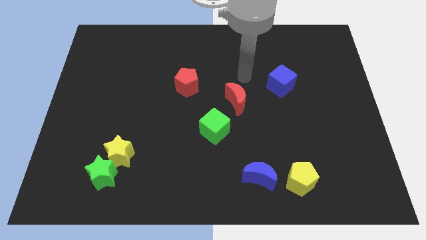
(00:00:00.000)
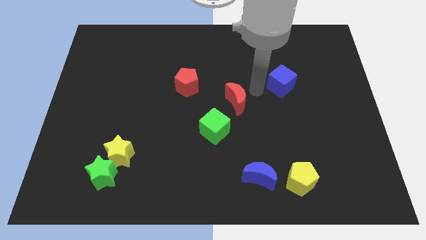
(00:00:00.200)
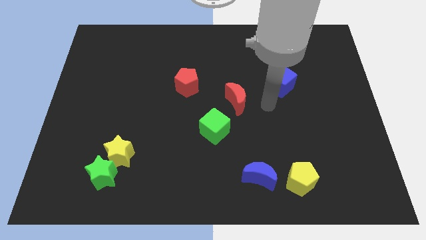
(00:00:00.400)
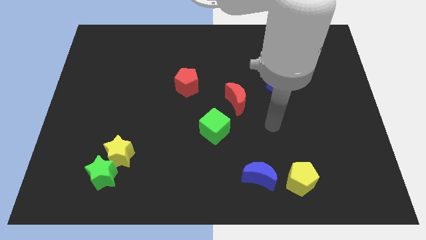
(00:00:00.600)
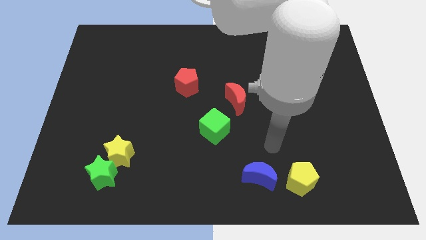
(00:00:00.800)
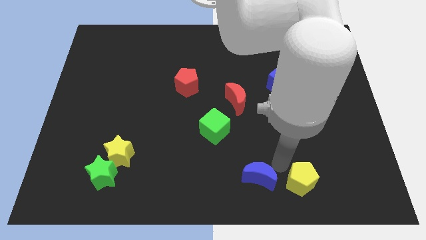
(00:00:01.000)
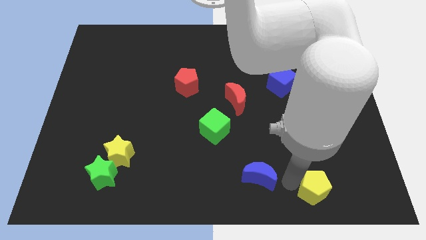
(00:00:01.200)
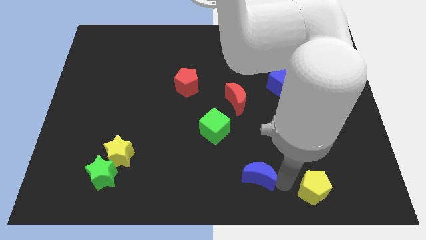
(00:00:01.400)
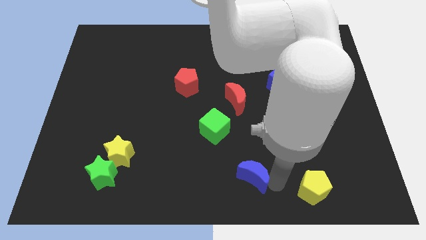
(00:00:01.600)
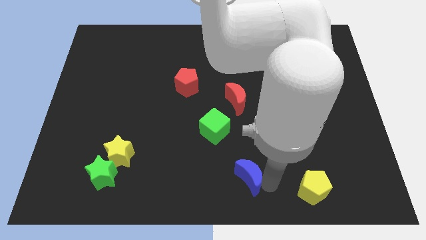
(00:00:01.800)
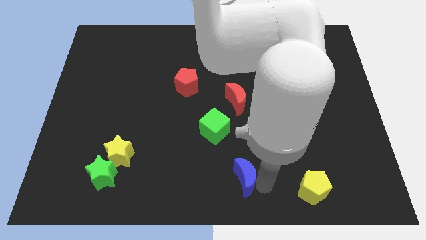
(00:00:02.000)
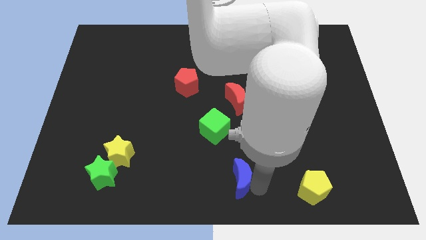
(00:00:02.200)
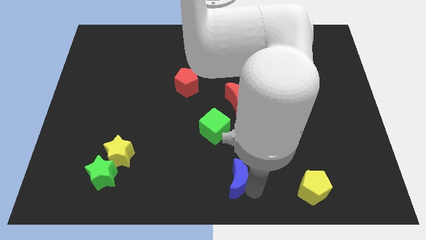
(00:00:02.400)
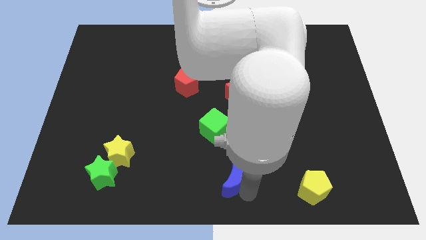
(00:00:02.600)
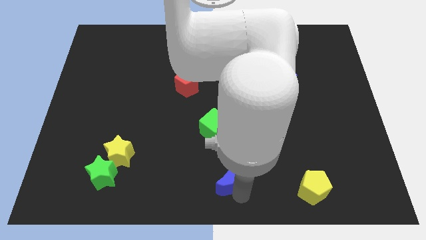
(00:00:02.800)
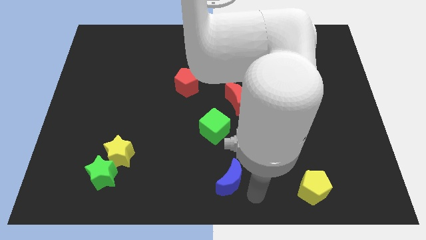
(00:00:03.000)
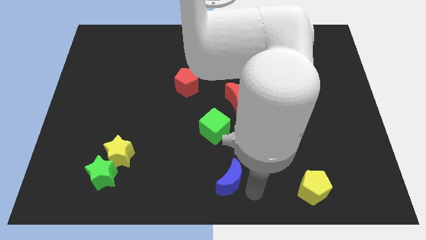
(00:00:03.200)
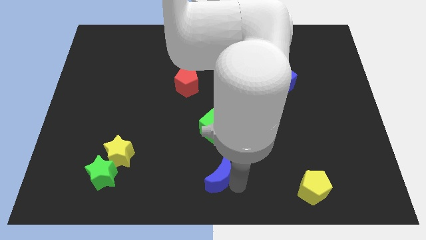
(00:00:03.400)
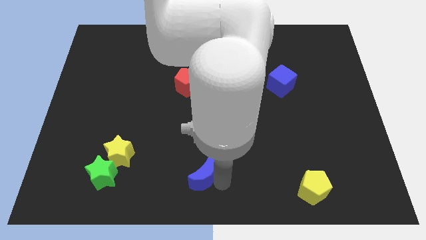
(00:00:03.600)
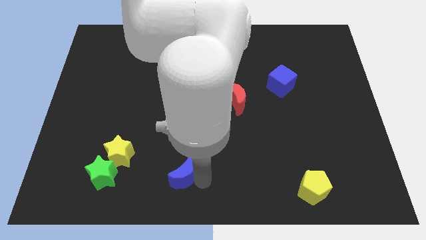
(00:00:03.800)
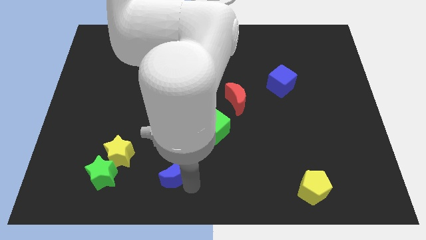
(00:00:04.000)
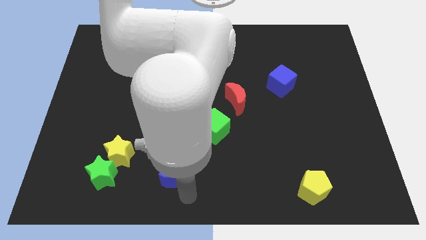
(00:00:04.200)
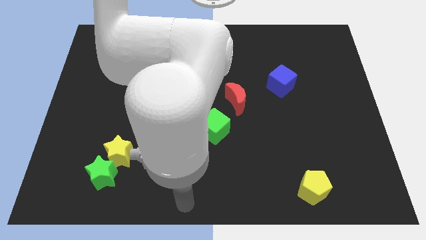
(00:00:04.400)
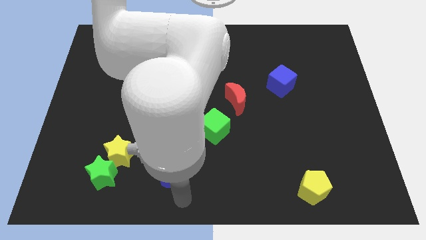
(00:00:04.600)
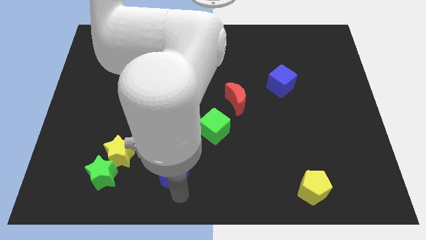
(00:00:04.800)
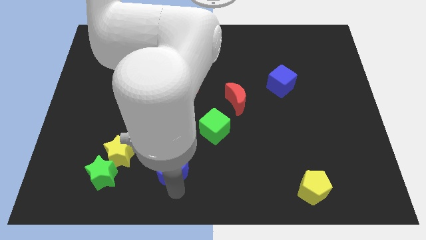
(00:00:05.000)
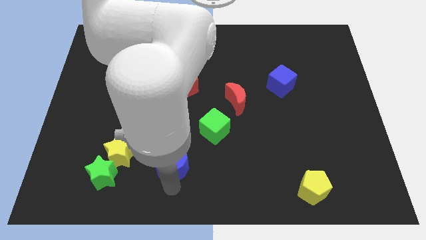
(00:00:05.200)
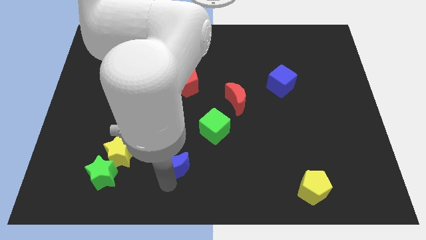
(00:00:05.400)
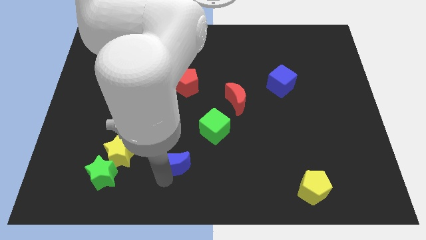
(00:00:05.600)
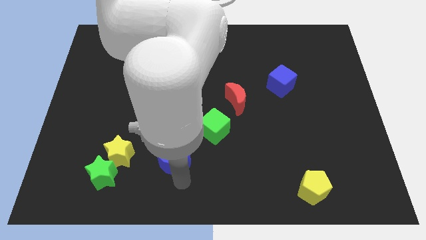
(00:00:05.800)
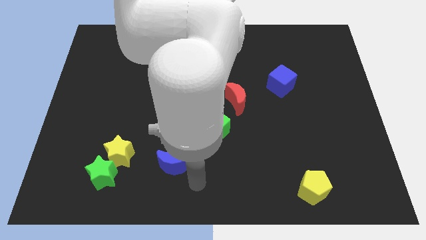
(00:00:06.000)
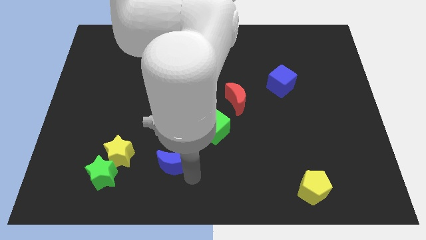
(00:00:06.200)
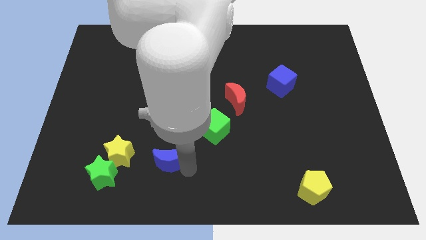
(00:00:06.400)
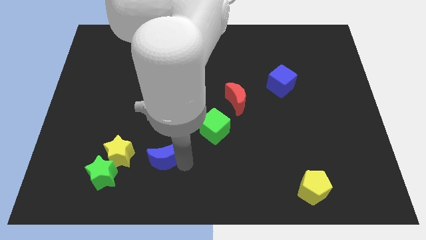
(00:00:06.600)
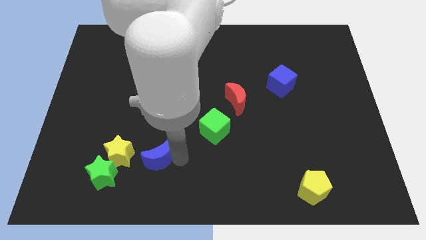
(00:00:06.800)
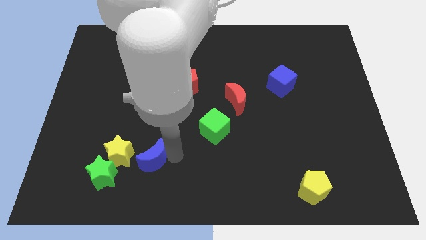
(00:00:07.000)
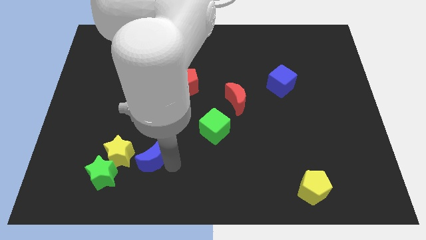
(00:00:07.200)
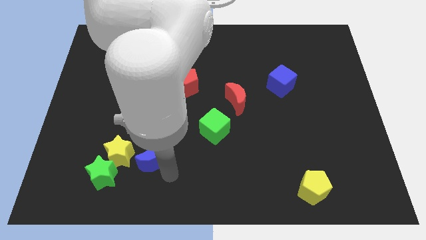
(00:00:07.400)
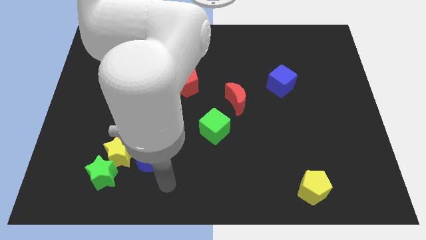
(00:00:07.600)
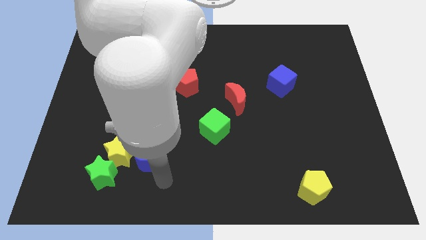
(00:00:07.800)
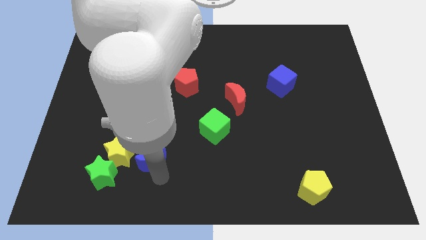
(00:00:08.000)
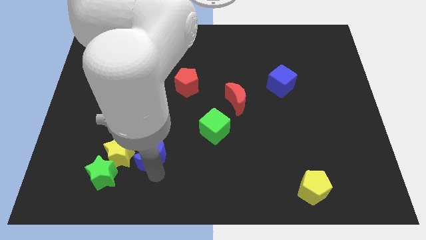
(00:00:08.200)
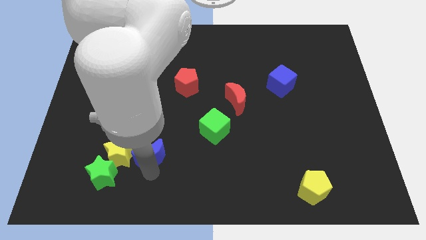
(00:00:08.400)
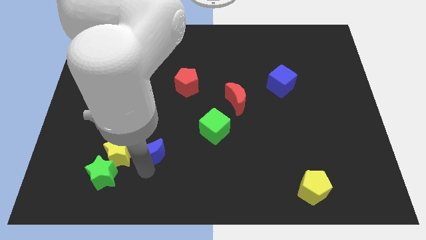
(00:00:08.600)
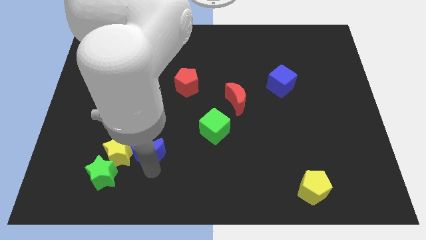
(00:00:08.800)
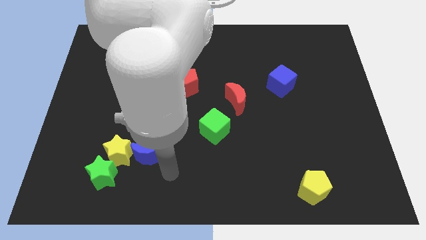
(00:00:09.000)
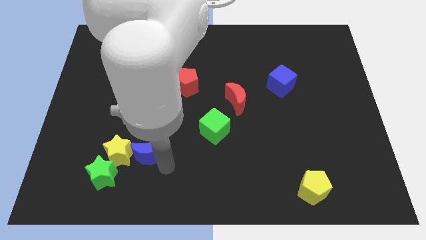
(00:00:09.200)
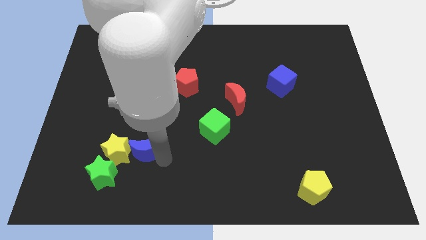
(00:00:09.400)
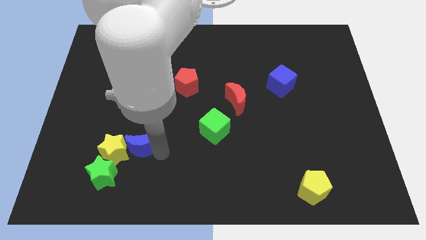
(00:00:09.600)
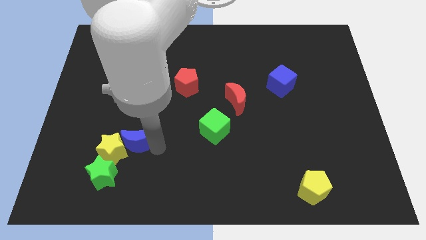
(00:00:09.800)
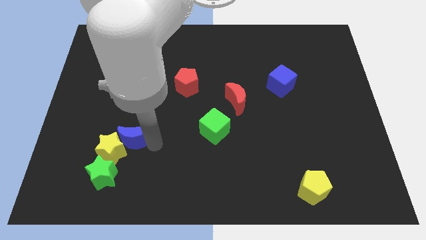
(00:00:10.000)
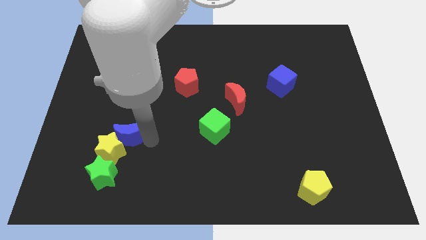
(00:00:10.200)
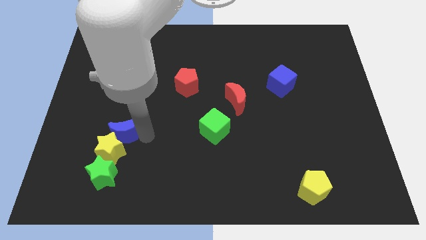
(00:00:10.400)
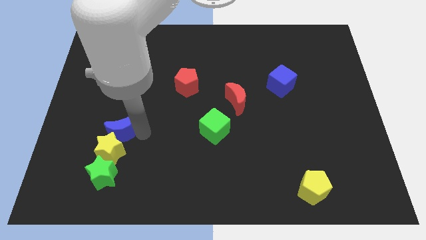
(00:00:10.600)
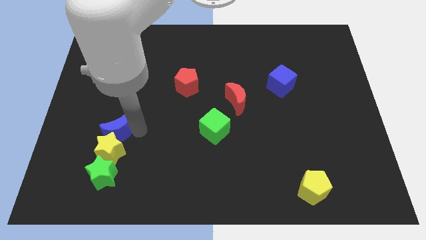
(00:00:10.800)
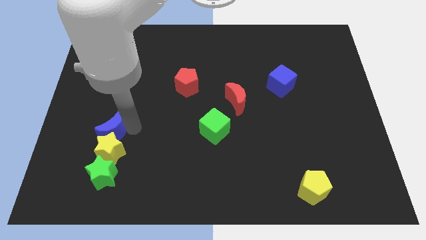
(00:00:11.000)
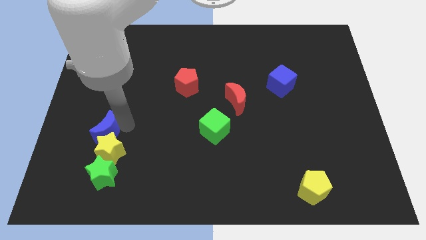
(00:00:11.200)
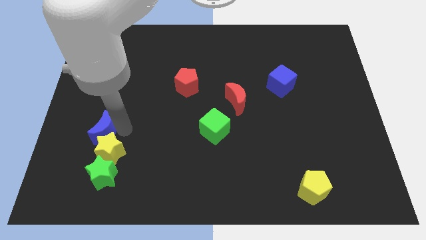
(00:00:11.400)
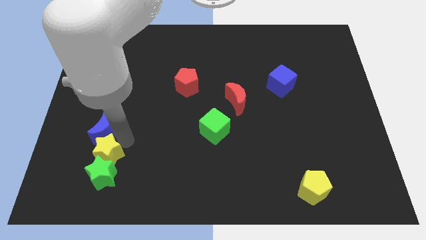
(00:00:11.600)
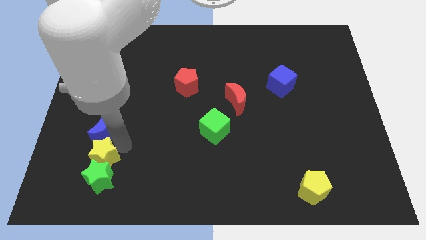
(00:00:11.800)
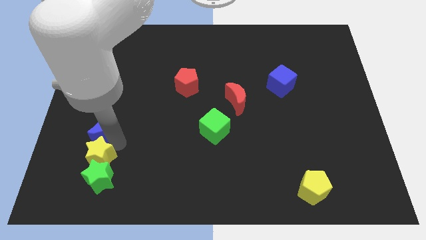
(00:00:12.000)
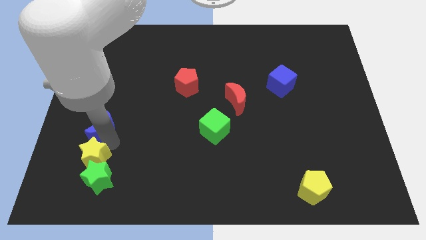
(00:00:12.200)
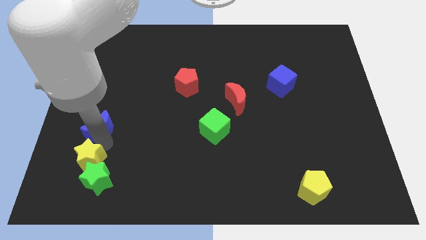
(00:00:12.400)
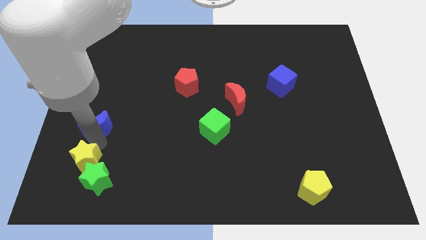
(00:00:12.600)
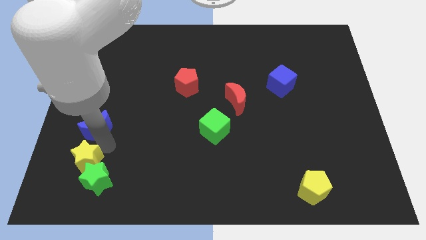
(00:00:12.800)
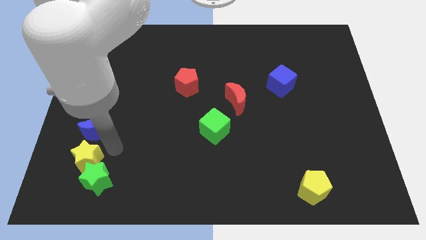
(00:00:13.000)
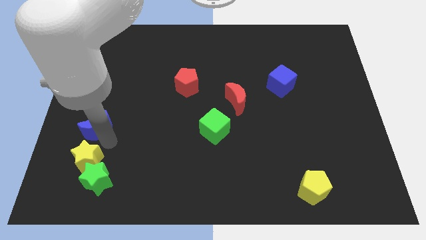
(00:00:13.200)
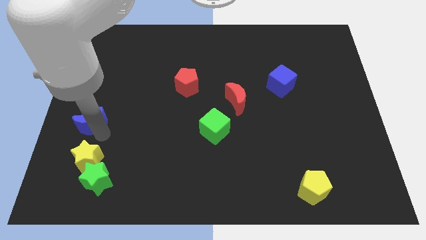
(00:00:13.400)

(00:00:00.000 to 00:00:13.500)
slide the blue moon to the center left
